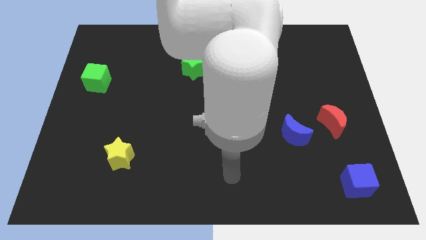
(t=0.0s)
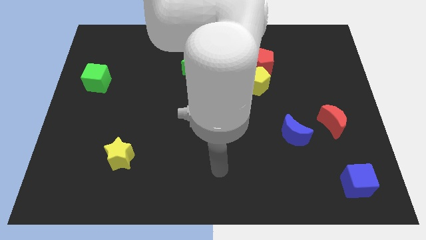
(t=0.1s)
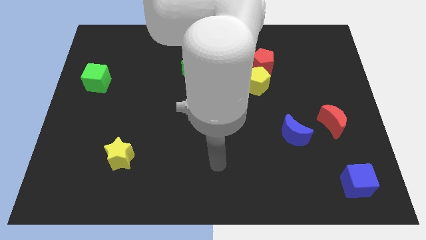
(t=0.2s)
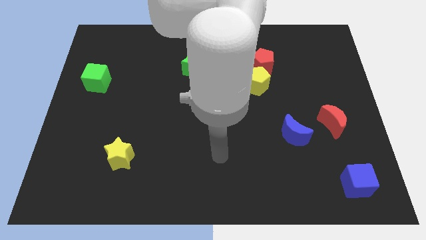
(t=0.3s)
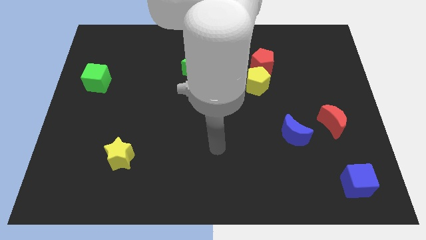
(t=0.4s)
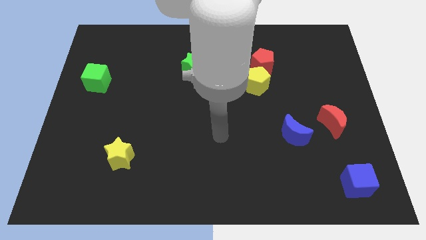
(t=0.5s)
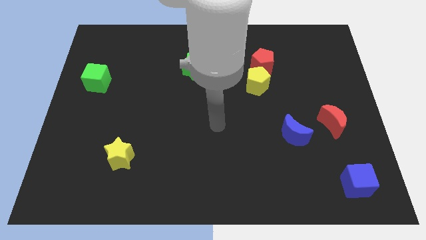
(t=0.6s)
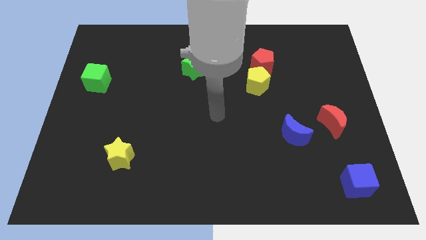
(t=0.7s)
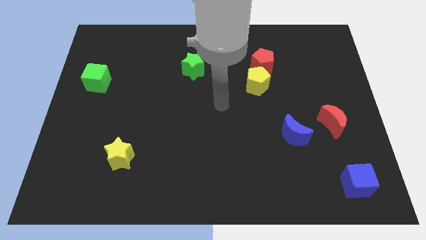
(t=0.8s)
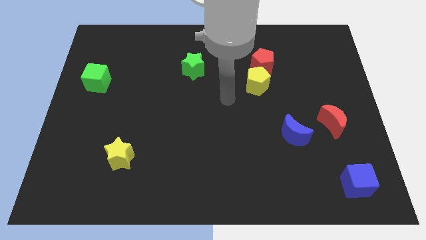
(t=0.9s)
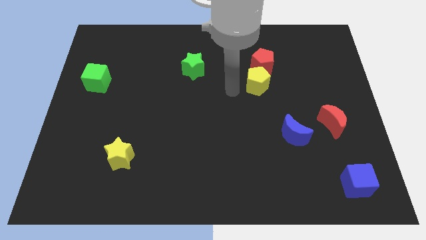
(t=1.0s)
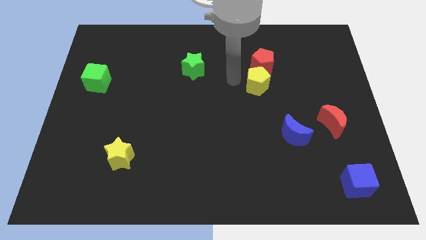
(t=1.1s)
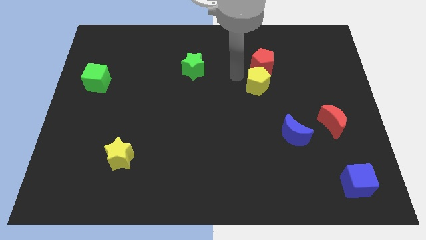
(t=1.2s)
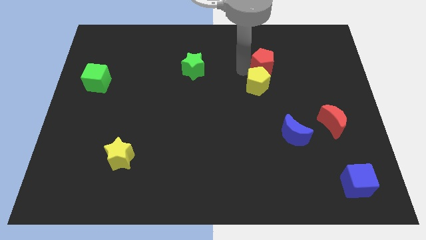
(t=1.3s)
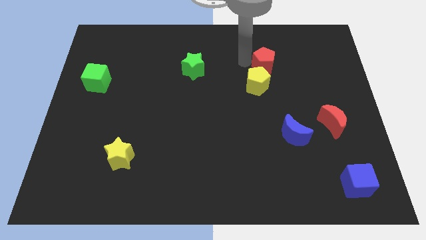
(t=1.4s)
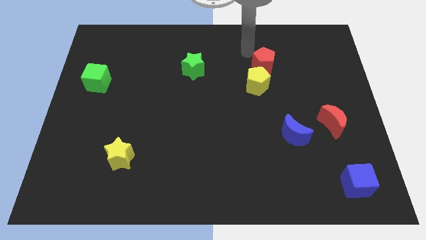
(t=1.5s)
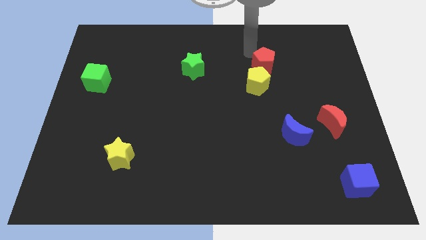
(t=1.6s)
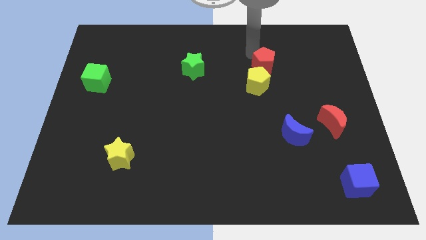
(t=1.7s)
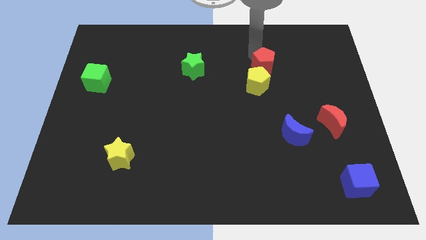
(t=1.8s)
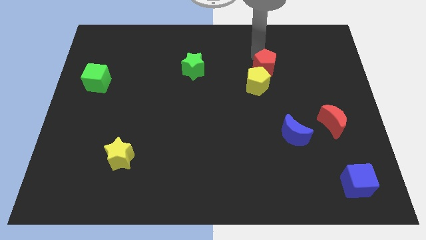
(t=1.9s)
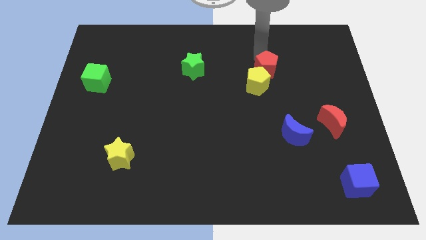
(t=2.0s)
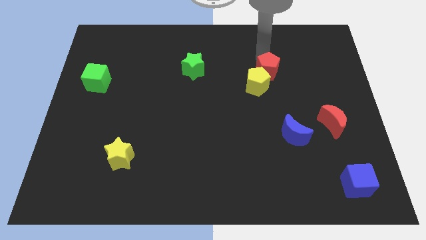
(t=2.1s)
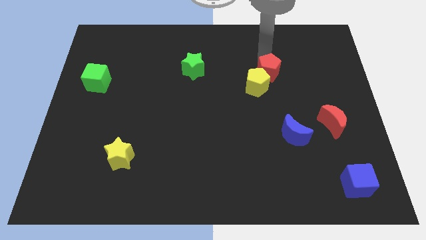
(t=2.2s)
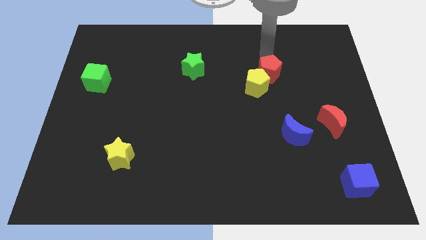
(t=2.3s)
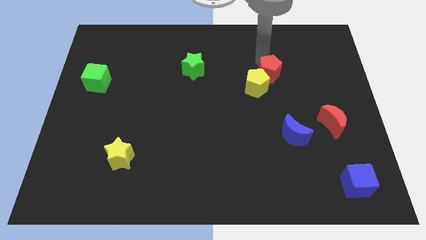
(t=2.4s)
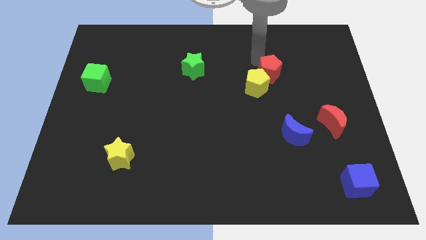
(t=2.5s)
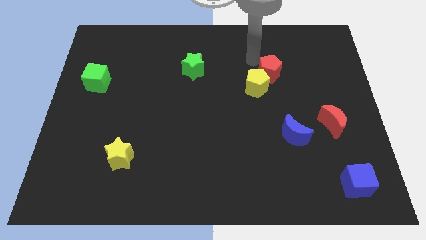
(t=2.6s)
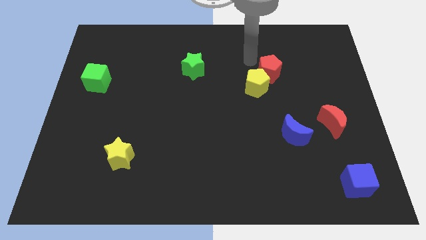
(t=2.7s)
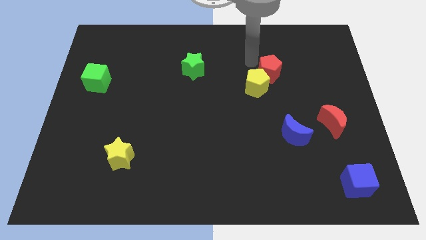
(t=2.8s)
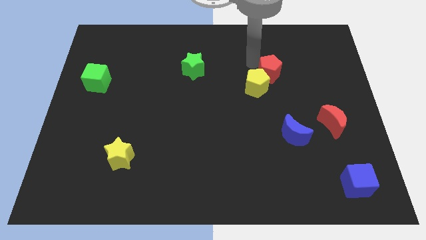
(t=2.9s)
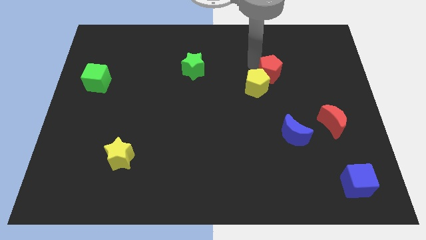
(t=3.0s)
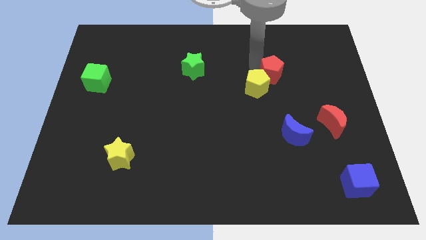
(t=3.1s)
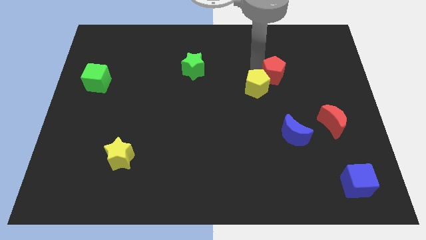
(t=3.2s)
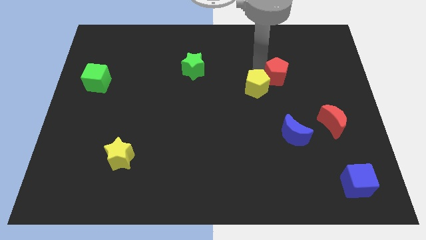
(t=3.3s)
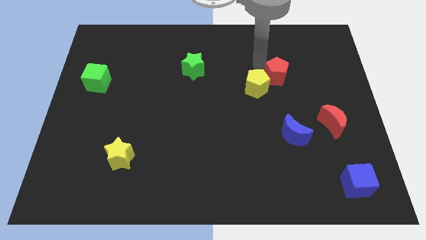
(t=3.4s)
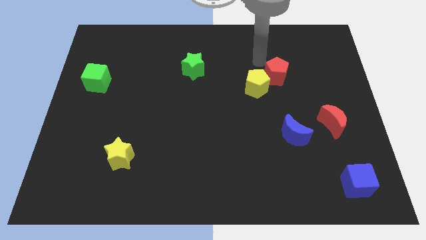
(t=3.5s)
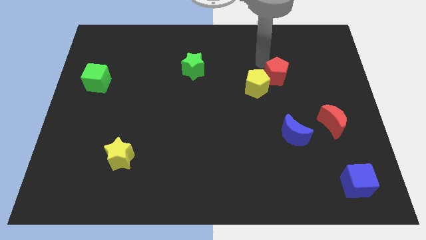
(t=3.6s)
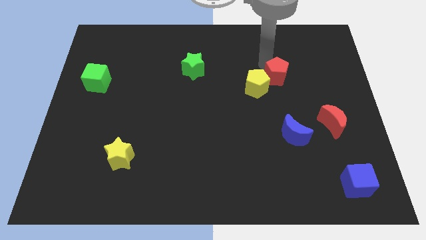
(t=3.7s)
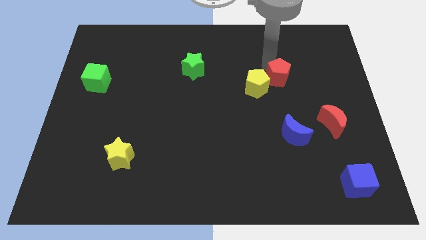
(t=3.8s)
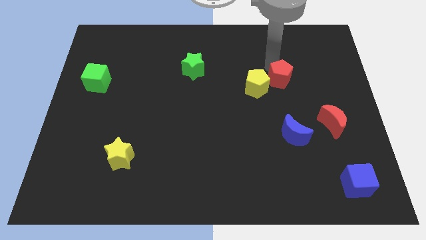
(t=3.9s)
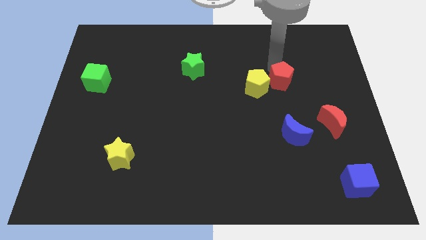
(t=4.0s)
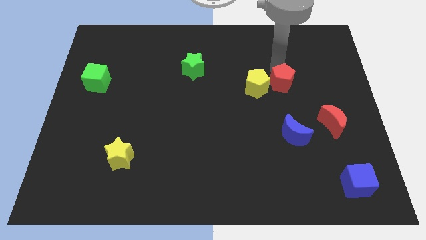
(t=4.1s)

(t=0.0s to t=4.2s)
move the red pentagon a bit down and right diagonally

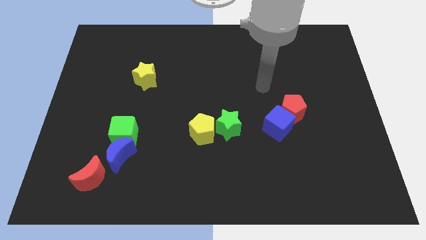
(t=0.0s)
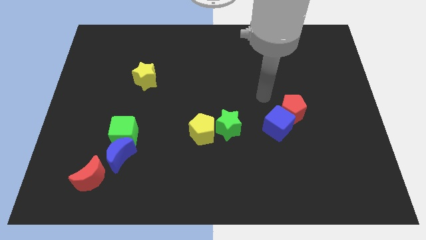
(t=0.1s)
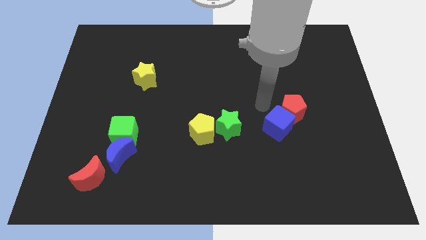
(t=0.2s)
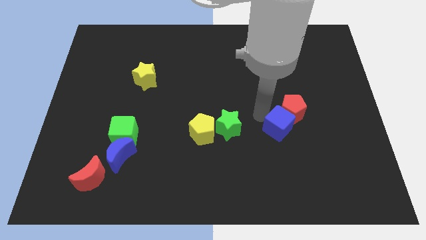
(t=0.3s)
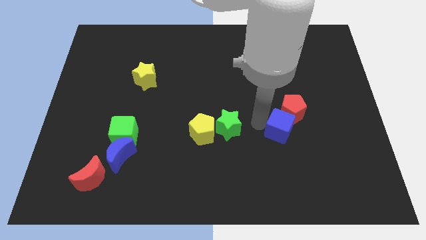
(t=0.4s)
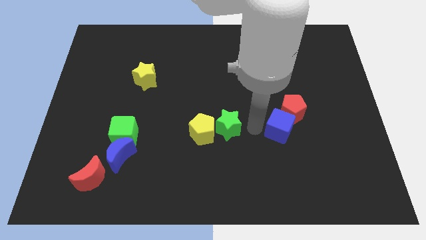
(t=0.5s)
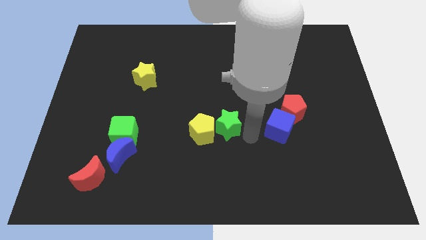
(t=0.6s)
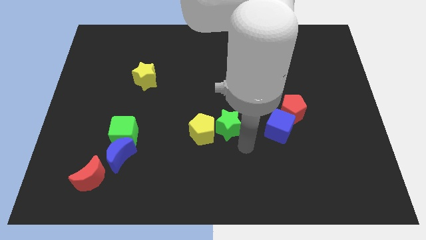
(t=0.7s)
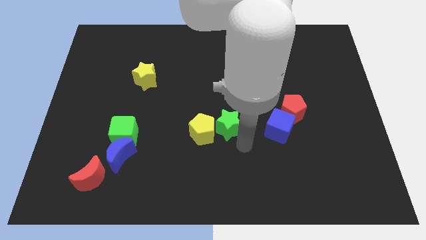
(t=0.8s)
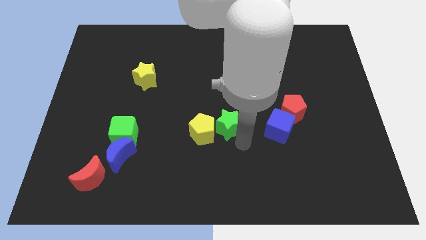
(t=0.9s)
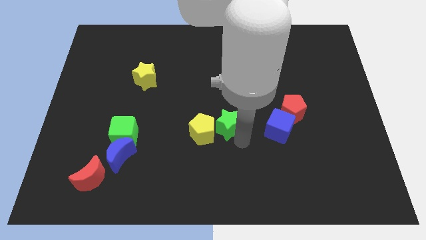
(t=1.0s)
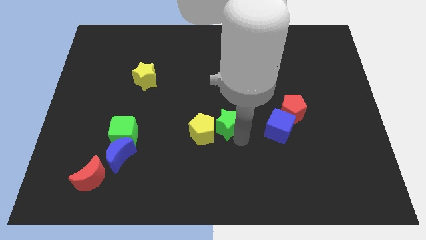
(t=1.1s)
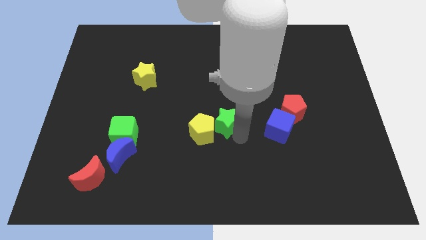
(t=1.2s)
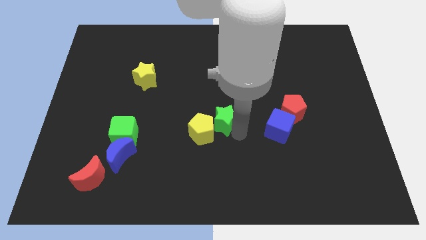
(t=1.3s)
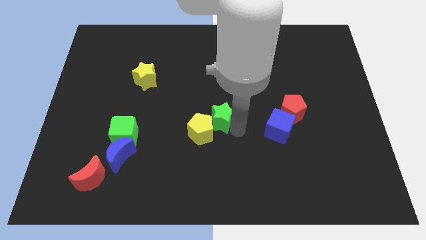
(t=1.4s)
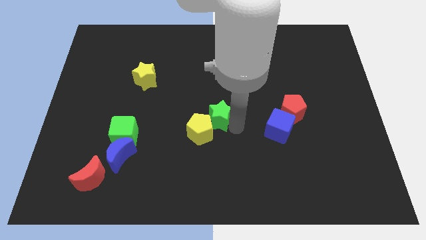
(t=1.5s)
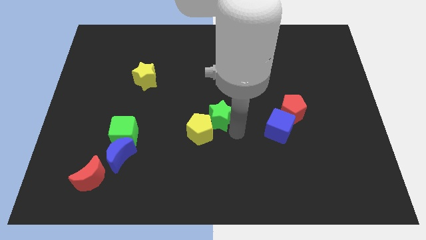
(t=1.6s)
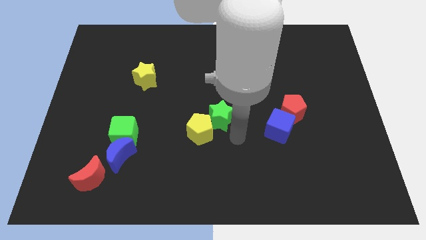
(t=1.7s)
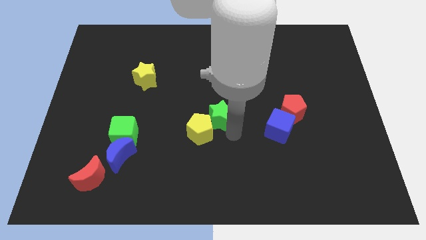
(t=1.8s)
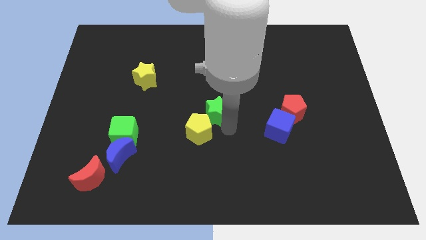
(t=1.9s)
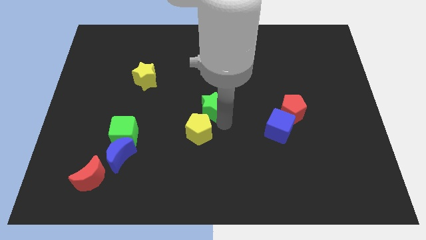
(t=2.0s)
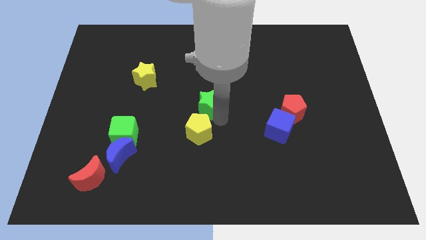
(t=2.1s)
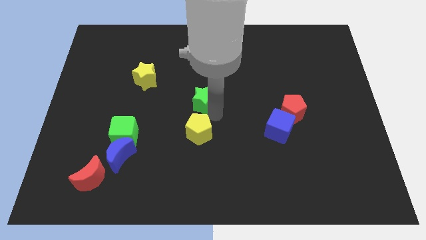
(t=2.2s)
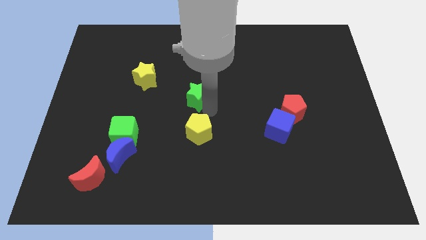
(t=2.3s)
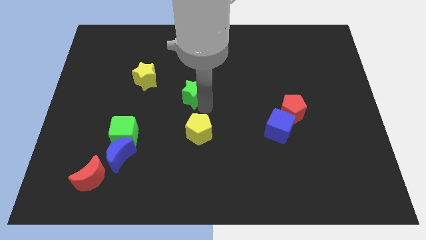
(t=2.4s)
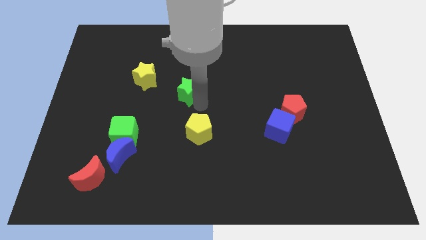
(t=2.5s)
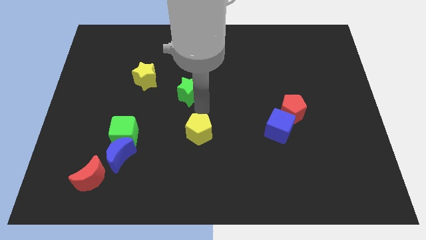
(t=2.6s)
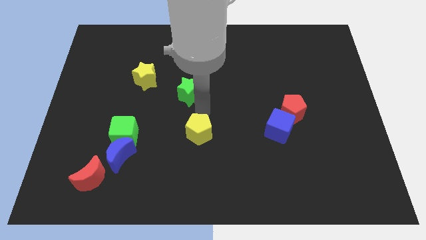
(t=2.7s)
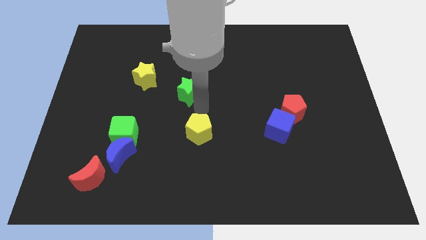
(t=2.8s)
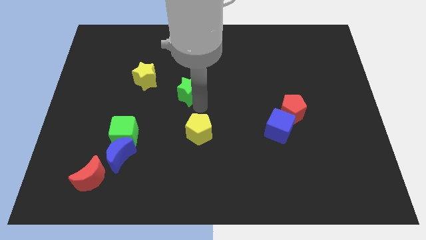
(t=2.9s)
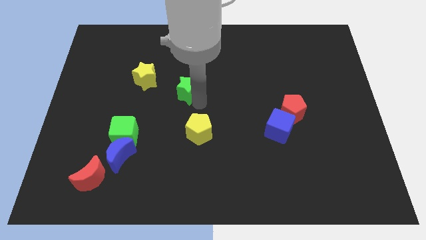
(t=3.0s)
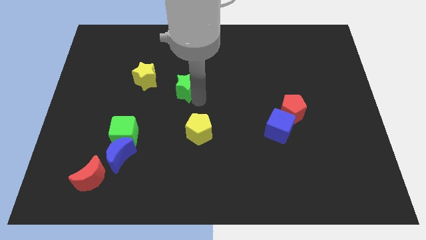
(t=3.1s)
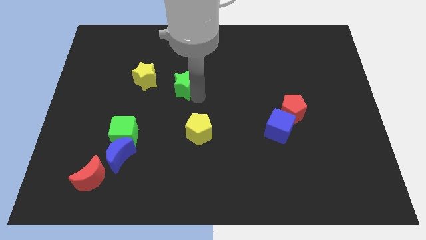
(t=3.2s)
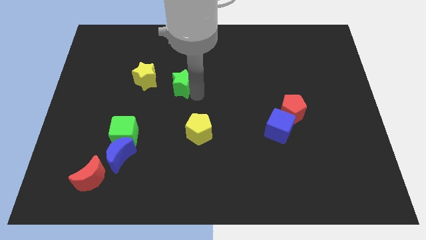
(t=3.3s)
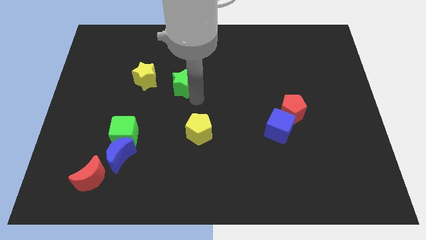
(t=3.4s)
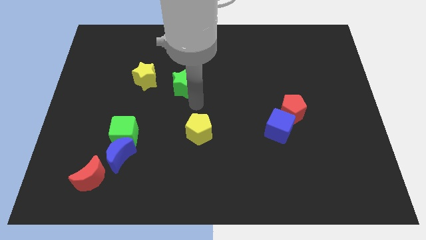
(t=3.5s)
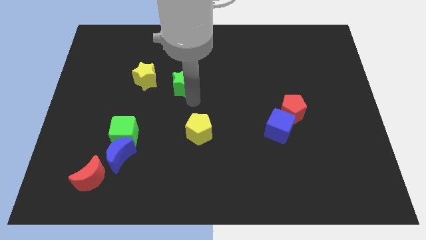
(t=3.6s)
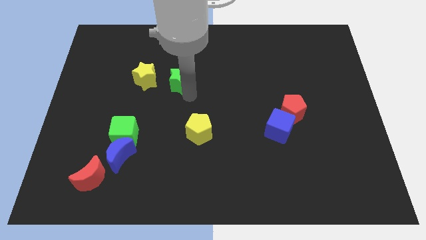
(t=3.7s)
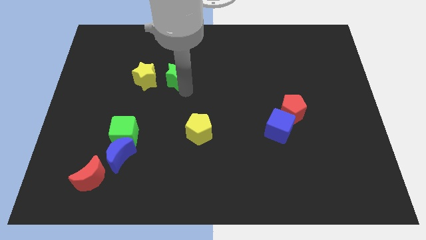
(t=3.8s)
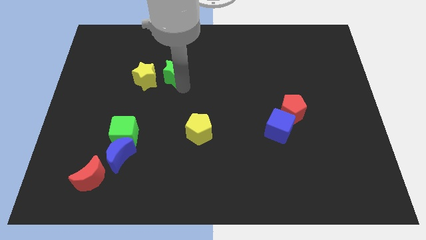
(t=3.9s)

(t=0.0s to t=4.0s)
move the green star diagonally up and to the left
